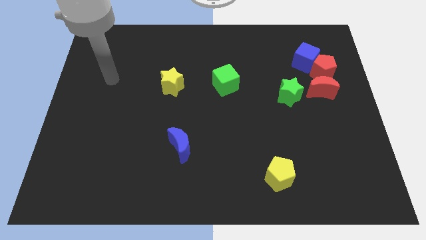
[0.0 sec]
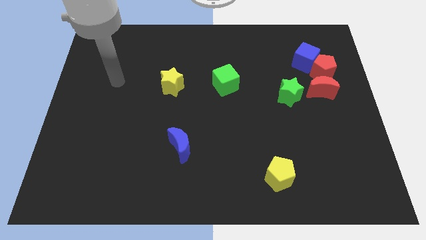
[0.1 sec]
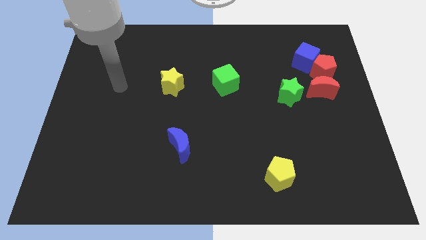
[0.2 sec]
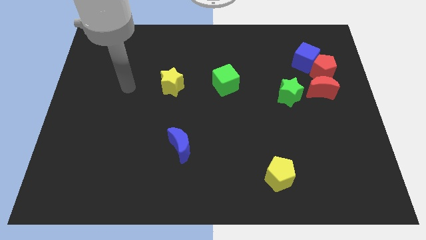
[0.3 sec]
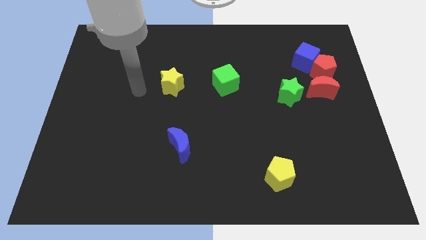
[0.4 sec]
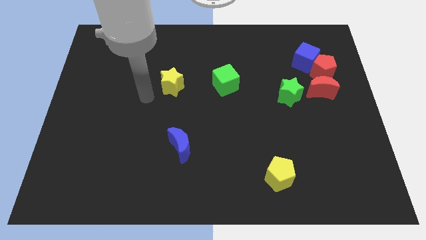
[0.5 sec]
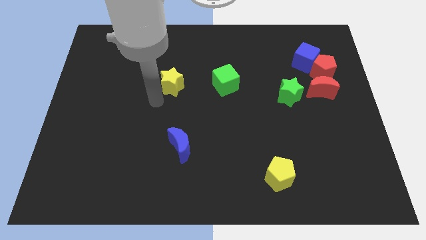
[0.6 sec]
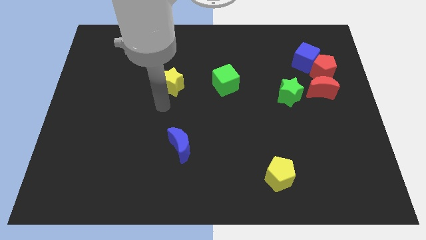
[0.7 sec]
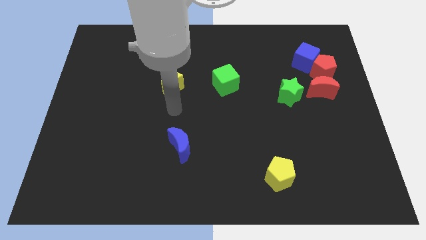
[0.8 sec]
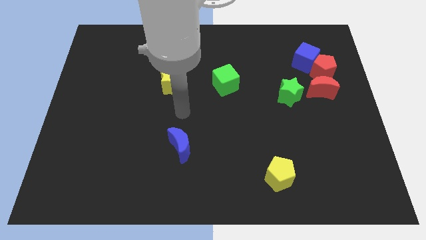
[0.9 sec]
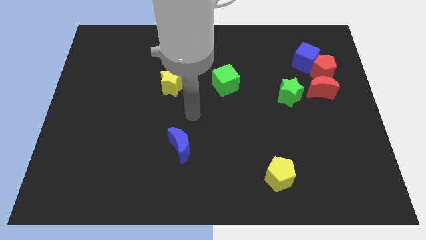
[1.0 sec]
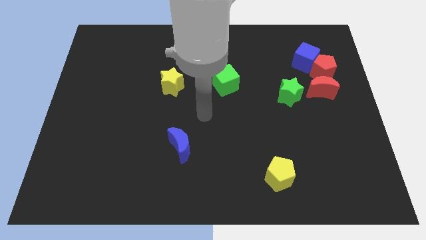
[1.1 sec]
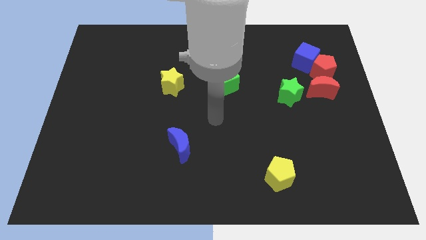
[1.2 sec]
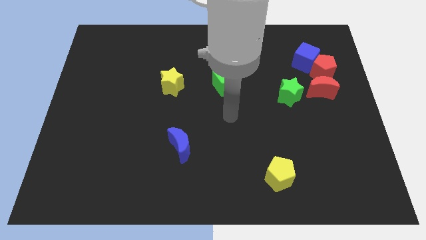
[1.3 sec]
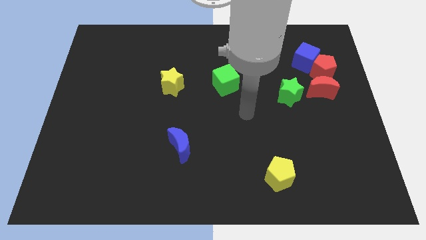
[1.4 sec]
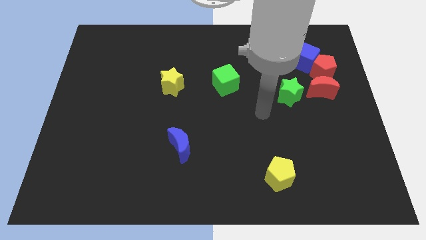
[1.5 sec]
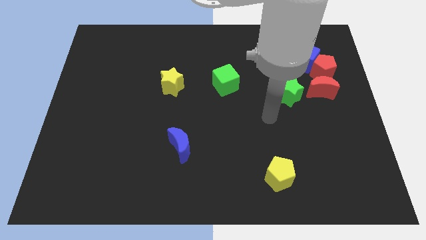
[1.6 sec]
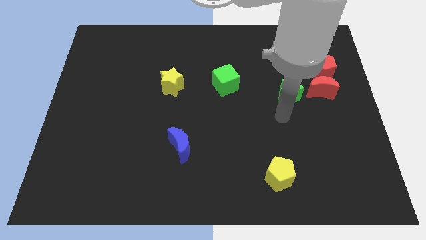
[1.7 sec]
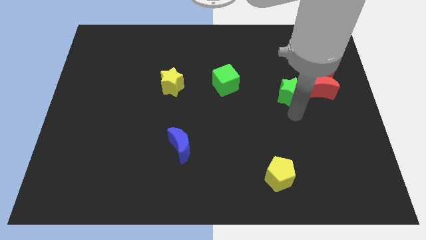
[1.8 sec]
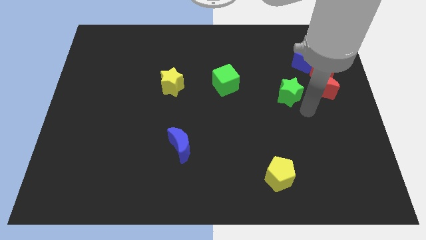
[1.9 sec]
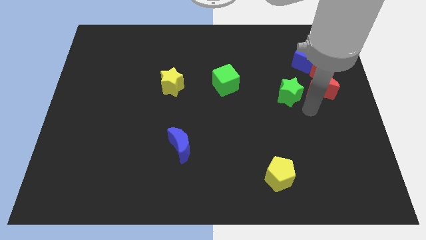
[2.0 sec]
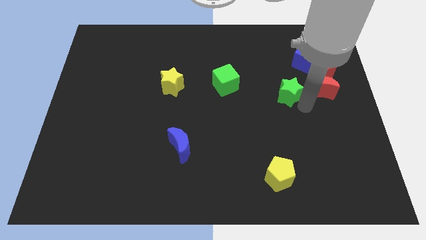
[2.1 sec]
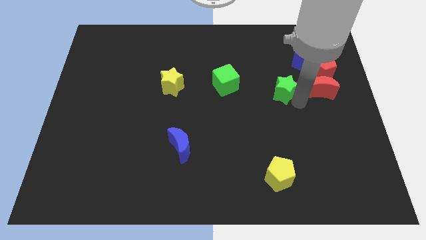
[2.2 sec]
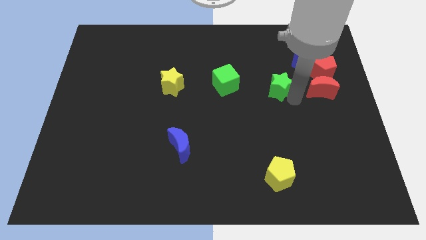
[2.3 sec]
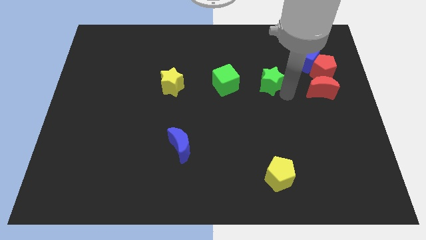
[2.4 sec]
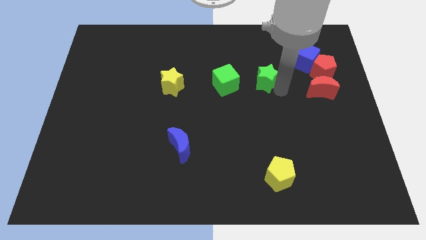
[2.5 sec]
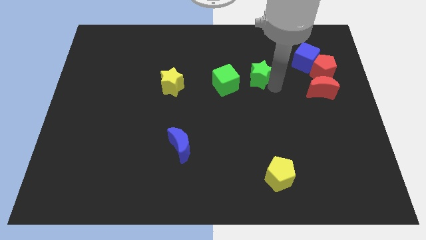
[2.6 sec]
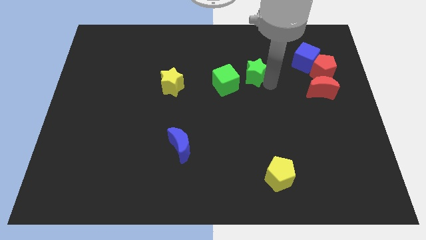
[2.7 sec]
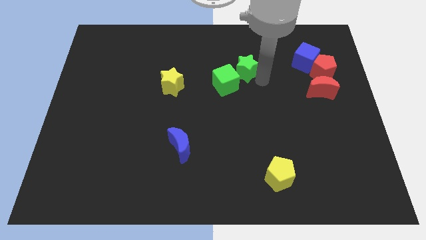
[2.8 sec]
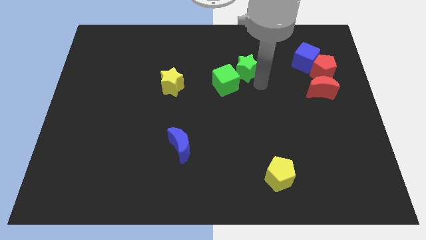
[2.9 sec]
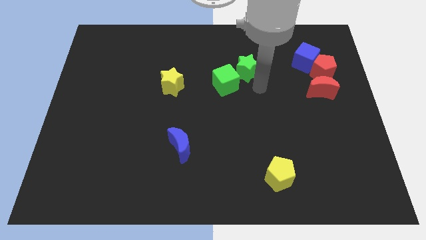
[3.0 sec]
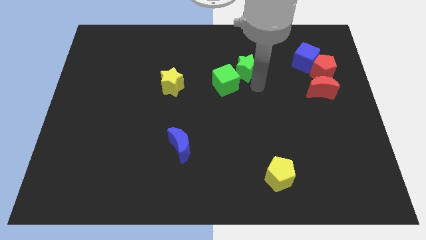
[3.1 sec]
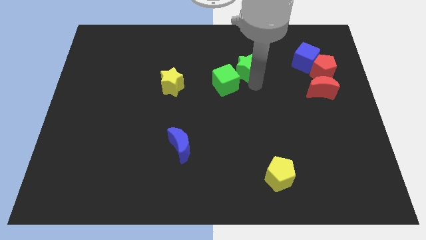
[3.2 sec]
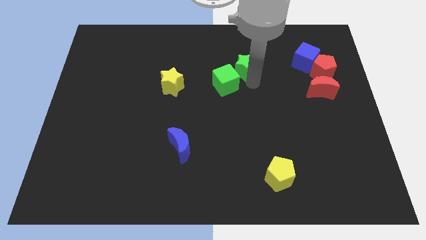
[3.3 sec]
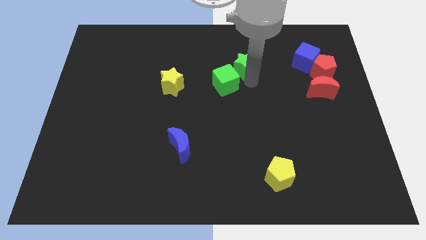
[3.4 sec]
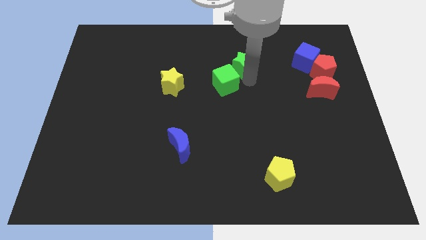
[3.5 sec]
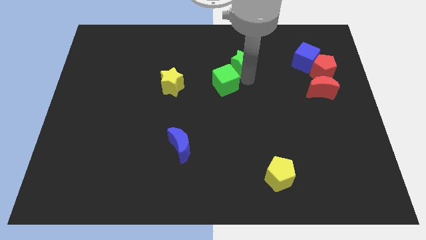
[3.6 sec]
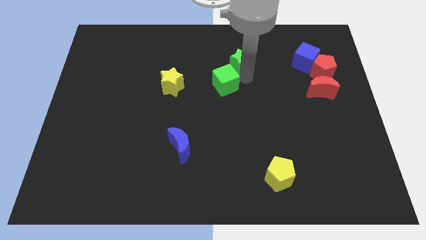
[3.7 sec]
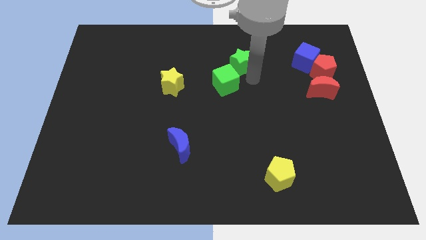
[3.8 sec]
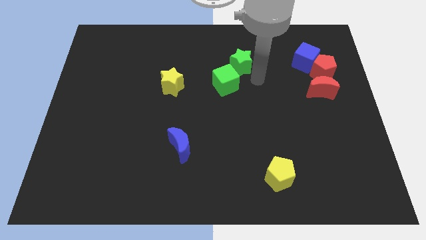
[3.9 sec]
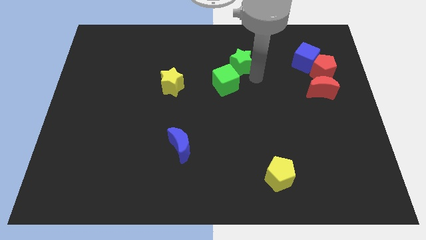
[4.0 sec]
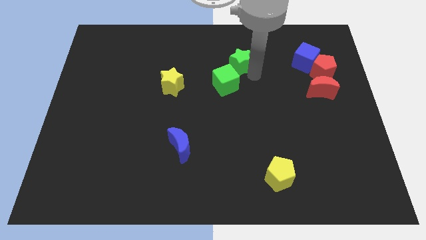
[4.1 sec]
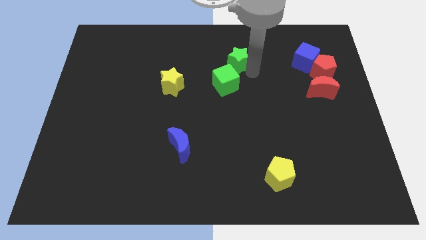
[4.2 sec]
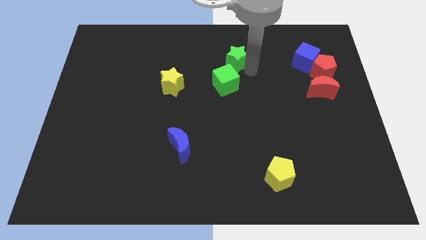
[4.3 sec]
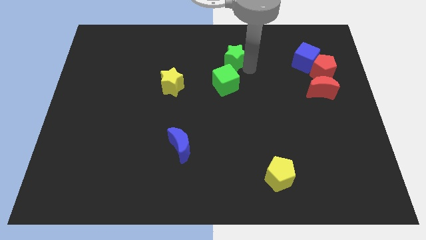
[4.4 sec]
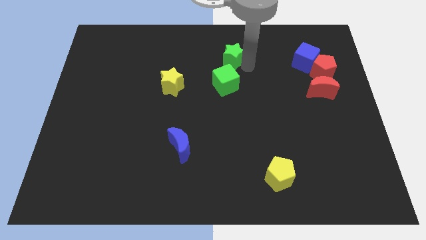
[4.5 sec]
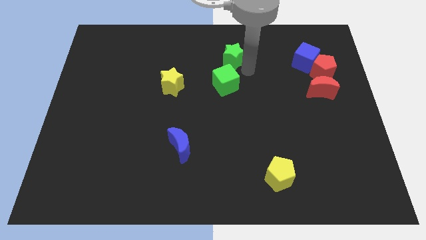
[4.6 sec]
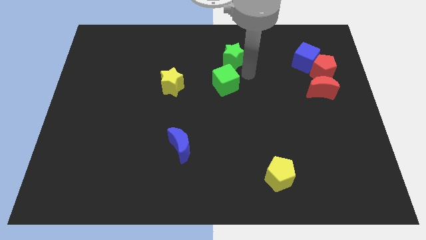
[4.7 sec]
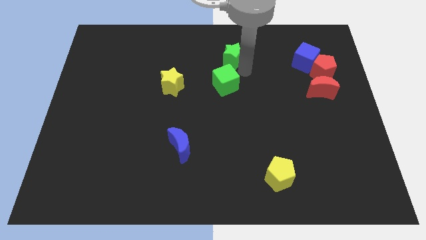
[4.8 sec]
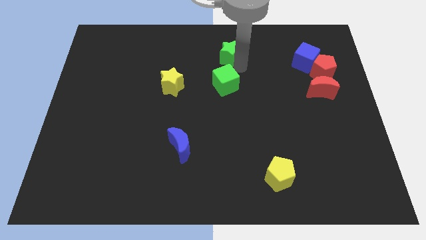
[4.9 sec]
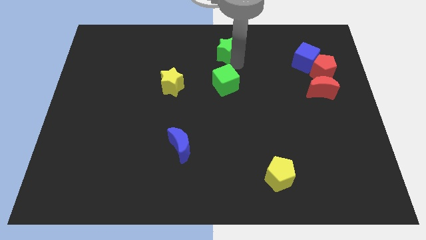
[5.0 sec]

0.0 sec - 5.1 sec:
slide the green star to the top

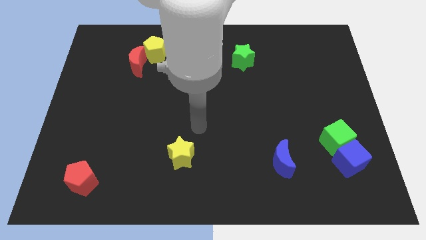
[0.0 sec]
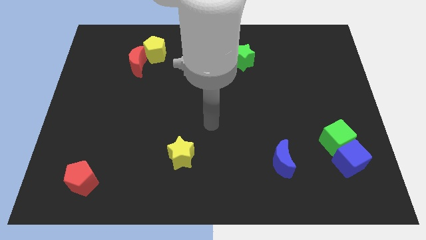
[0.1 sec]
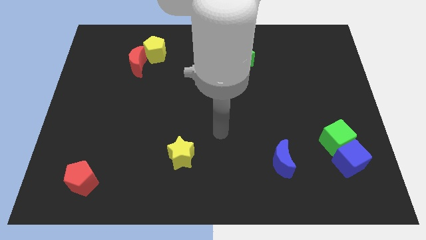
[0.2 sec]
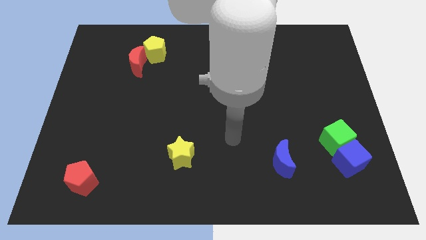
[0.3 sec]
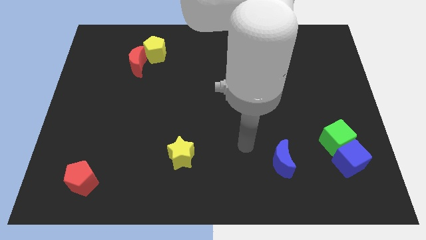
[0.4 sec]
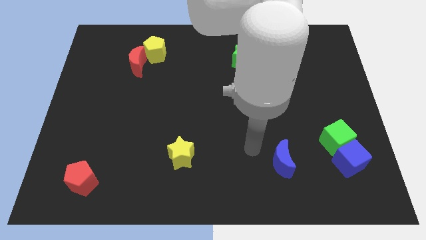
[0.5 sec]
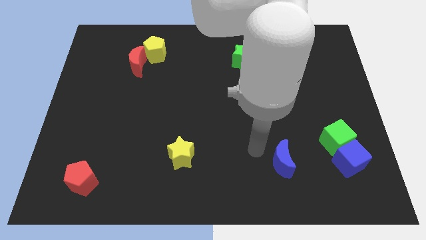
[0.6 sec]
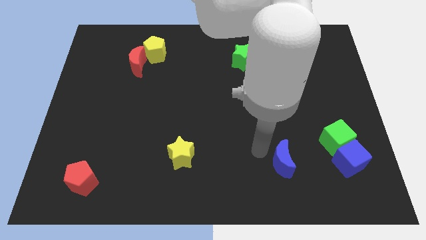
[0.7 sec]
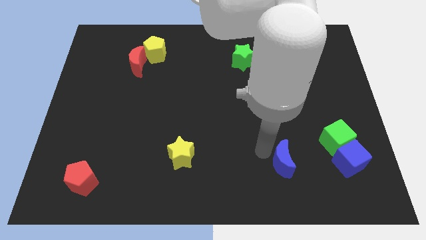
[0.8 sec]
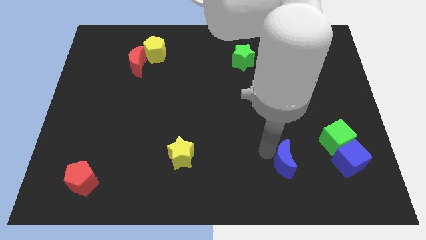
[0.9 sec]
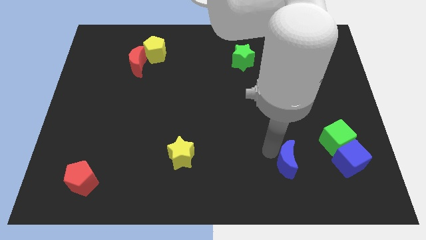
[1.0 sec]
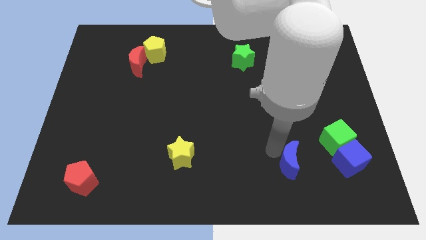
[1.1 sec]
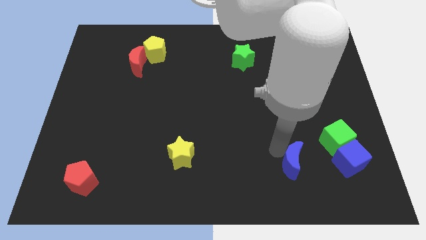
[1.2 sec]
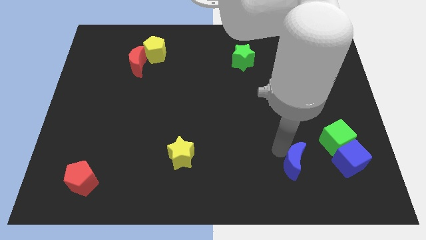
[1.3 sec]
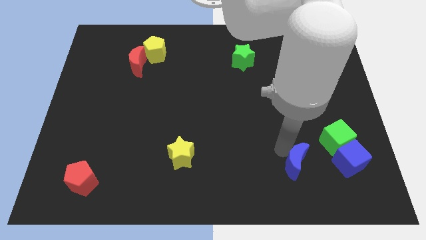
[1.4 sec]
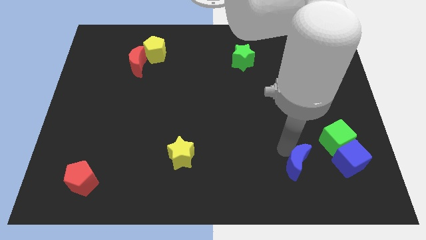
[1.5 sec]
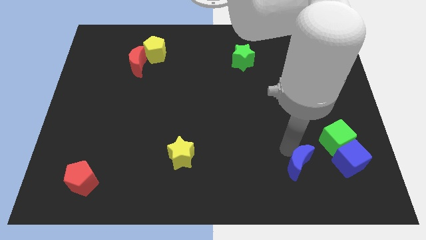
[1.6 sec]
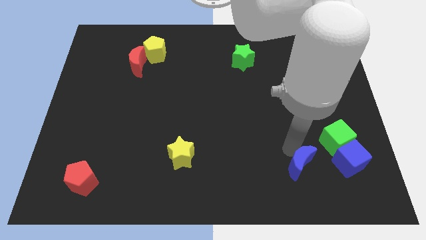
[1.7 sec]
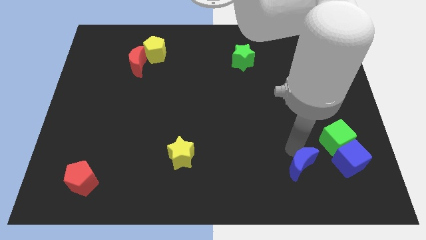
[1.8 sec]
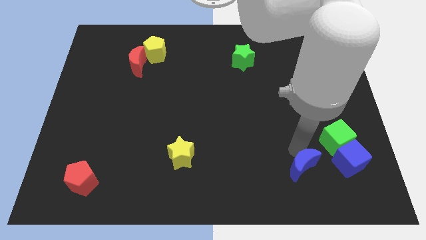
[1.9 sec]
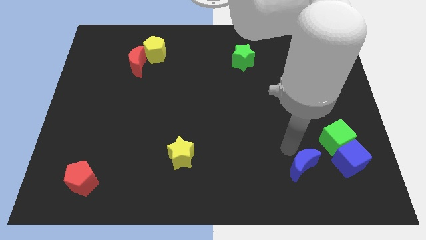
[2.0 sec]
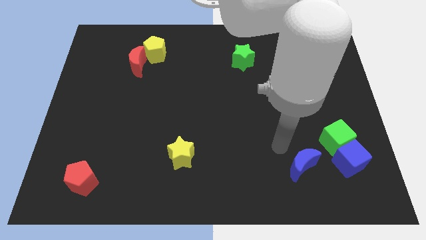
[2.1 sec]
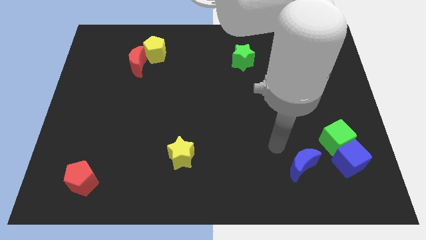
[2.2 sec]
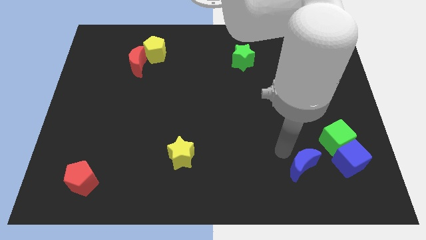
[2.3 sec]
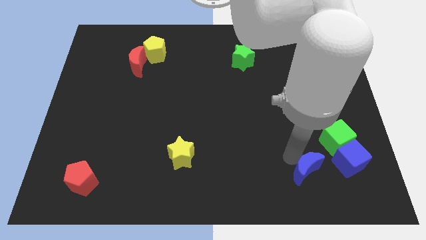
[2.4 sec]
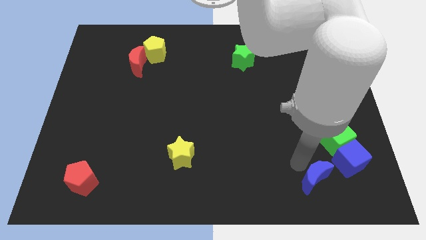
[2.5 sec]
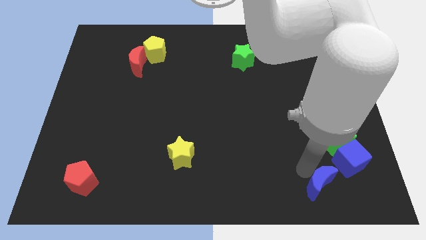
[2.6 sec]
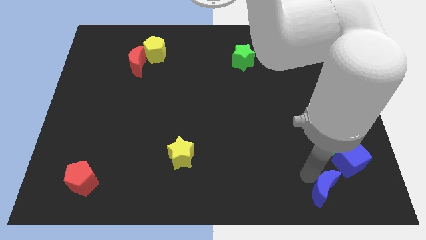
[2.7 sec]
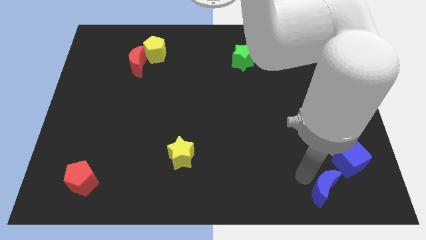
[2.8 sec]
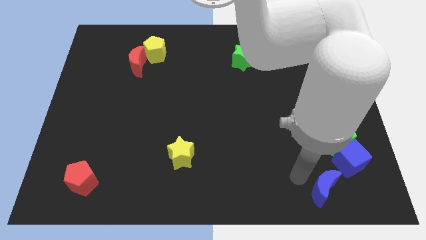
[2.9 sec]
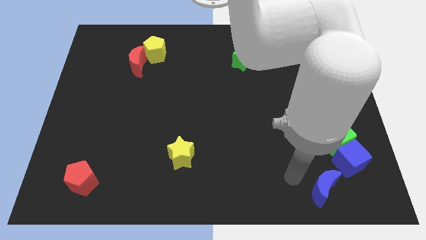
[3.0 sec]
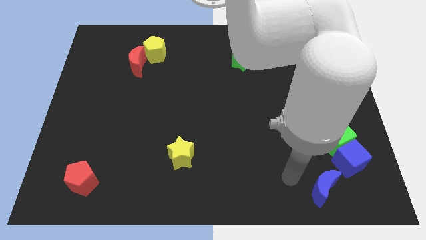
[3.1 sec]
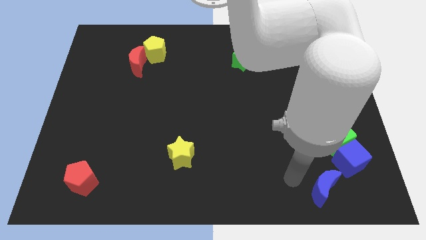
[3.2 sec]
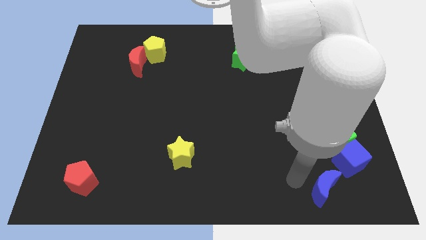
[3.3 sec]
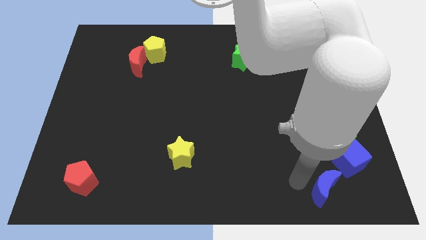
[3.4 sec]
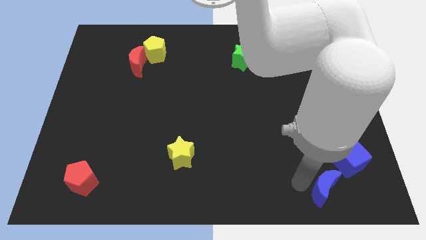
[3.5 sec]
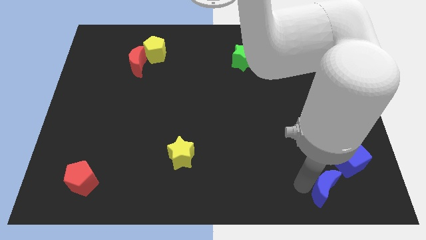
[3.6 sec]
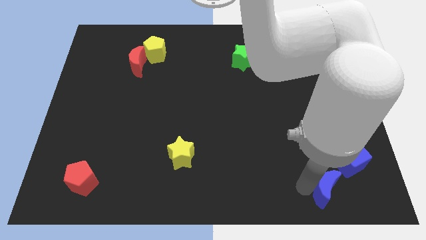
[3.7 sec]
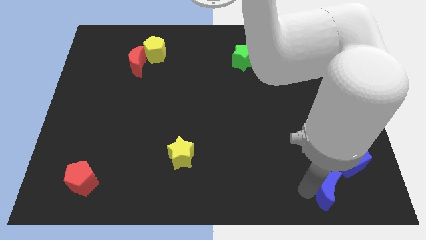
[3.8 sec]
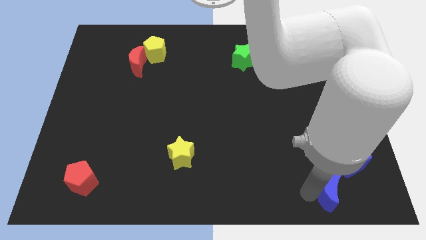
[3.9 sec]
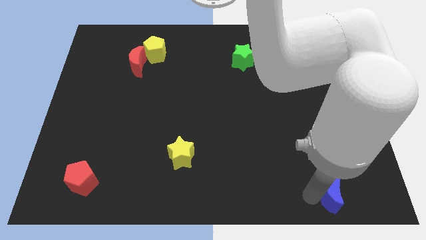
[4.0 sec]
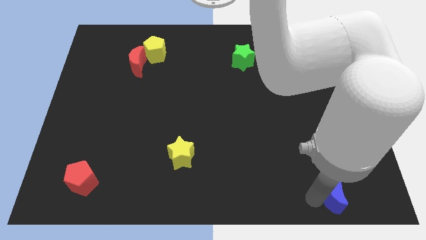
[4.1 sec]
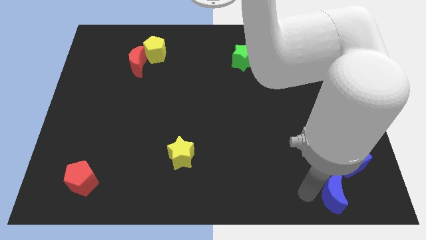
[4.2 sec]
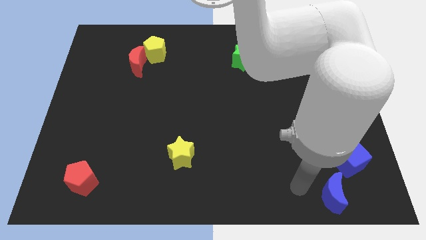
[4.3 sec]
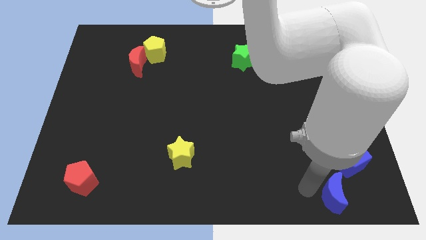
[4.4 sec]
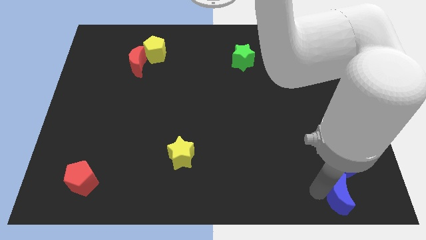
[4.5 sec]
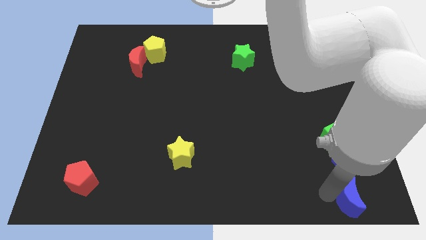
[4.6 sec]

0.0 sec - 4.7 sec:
push the blue moon to the bottom right
